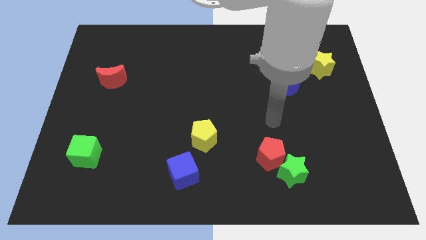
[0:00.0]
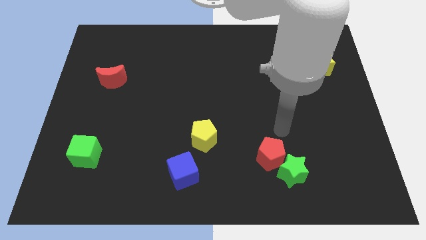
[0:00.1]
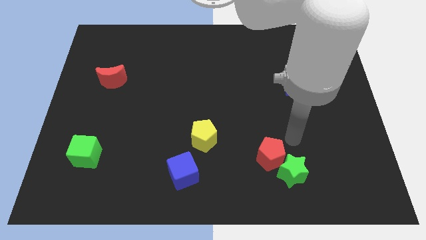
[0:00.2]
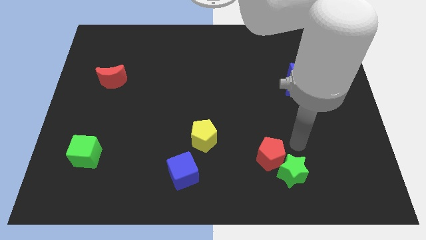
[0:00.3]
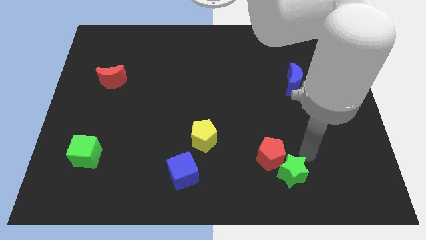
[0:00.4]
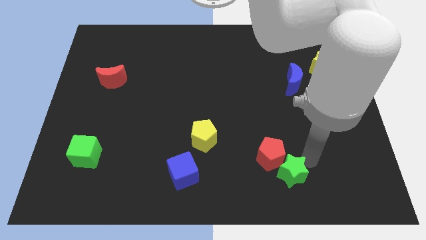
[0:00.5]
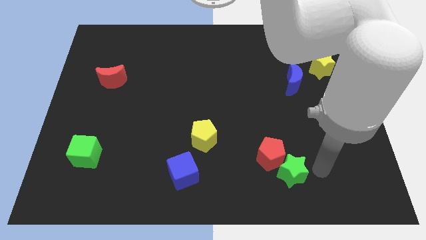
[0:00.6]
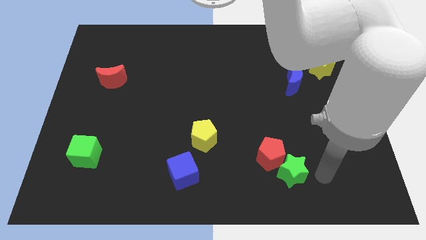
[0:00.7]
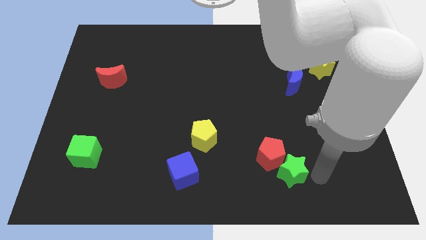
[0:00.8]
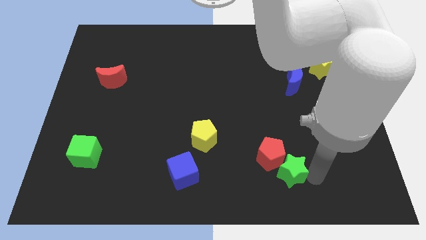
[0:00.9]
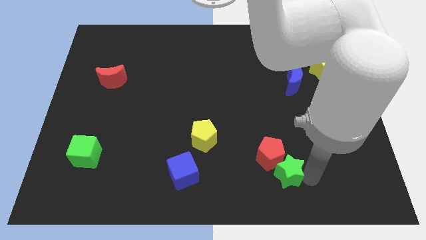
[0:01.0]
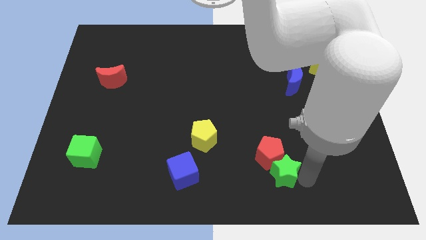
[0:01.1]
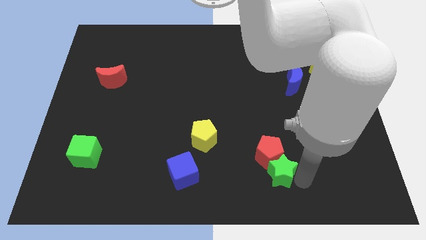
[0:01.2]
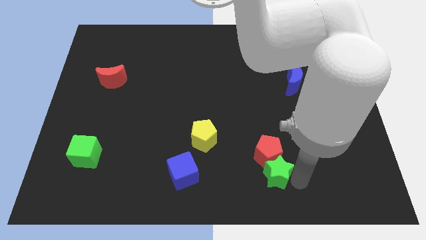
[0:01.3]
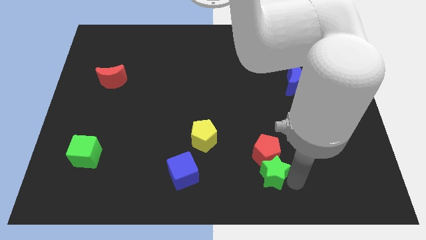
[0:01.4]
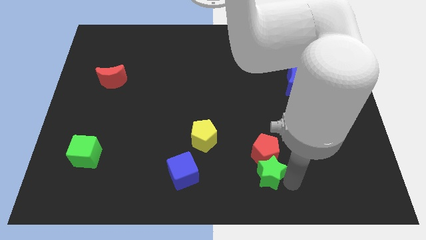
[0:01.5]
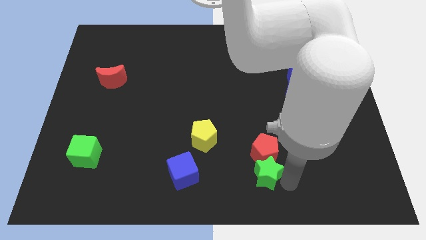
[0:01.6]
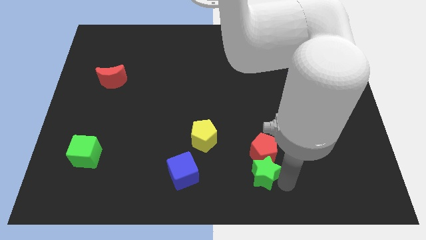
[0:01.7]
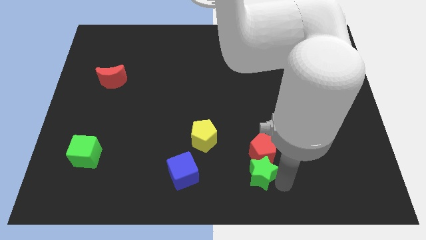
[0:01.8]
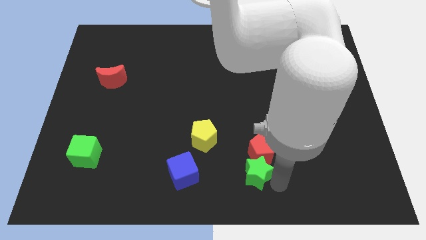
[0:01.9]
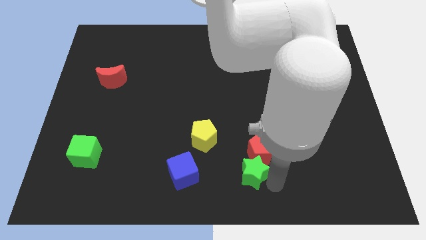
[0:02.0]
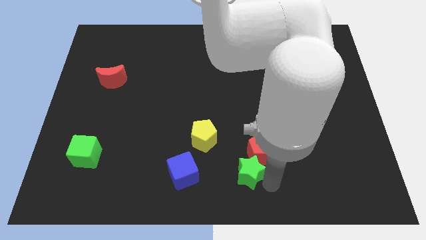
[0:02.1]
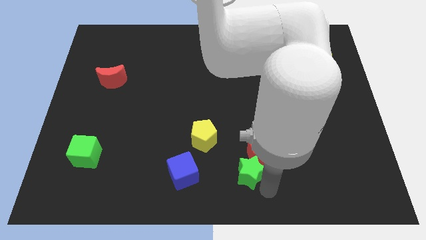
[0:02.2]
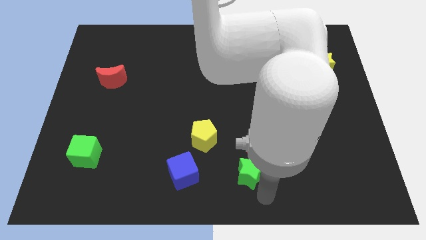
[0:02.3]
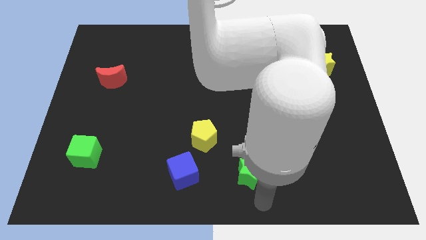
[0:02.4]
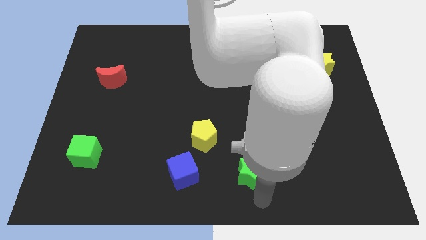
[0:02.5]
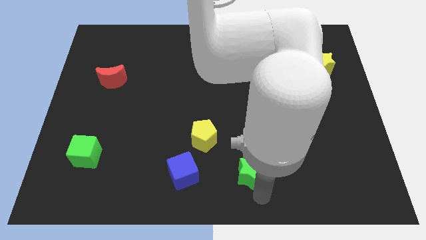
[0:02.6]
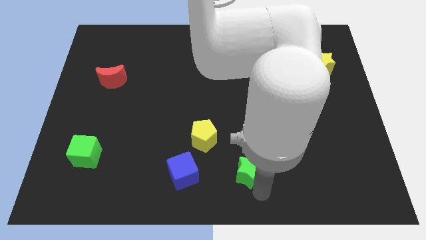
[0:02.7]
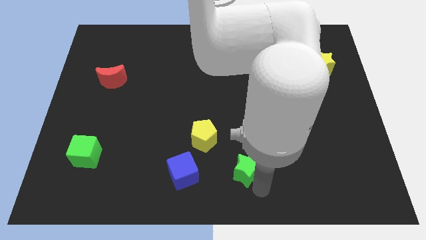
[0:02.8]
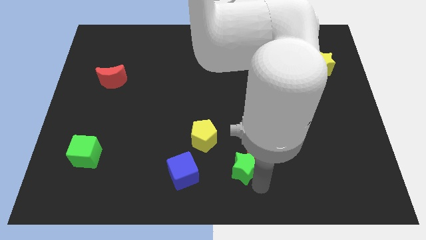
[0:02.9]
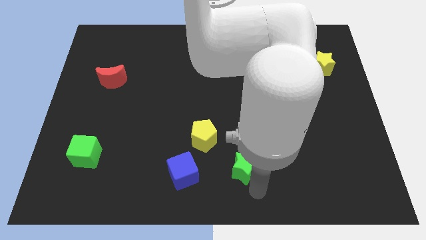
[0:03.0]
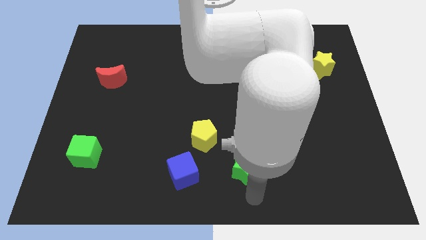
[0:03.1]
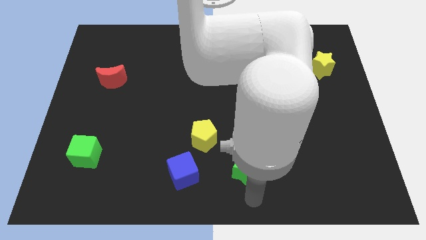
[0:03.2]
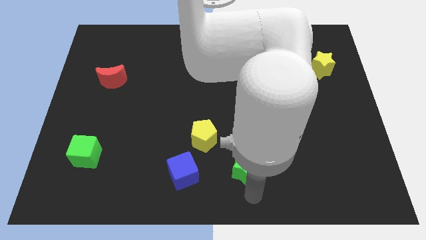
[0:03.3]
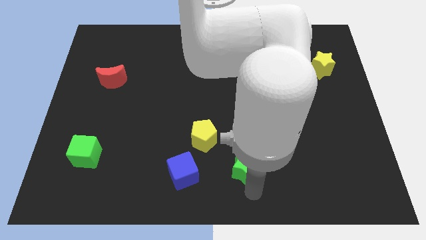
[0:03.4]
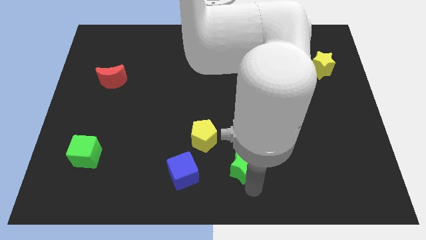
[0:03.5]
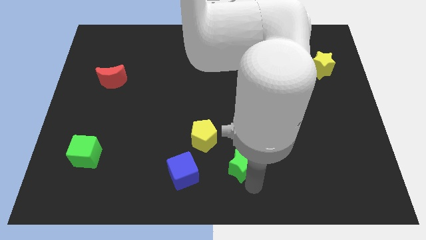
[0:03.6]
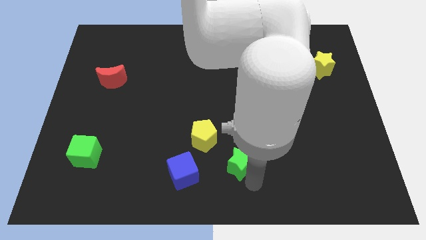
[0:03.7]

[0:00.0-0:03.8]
slide the green star a little bit diagonally upwards and left

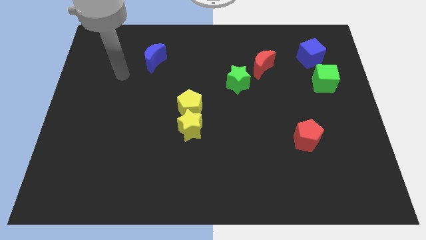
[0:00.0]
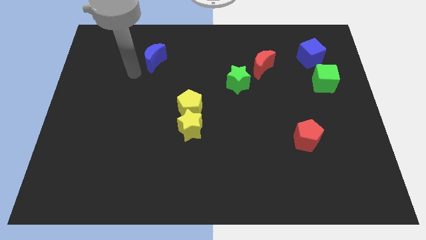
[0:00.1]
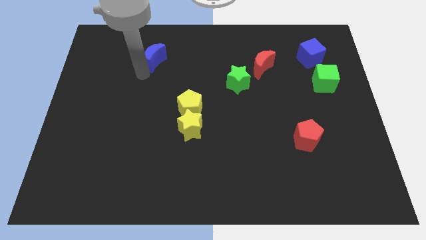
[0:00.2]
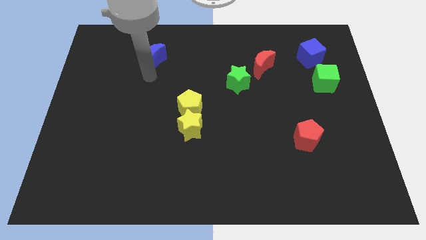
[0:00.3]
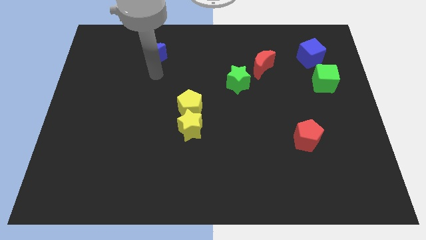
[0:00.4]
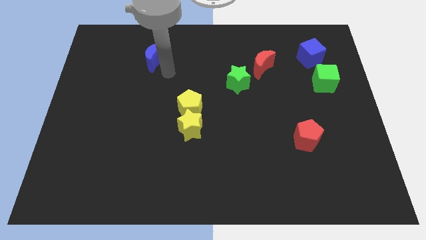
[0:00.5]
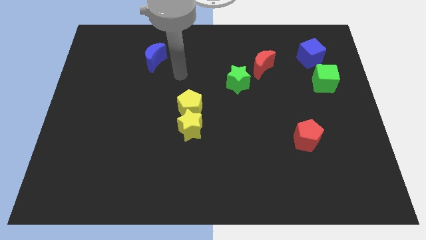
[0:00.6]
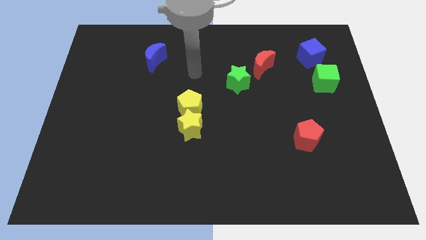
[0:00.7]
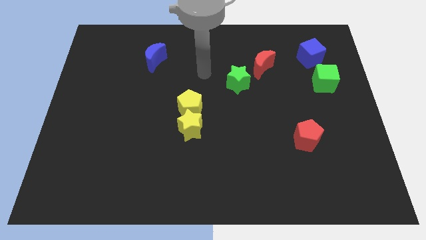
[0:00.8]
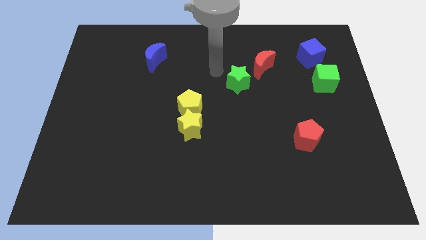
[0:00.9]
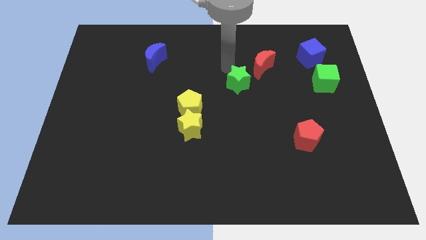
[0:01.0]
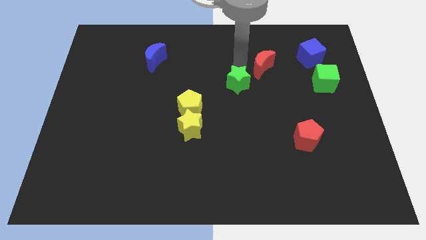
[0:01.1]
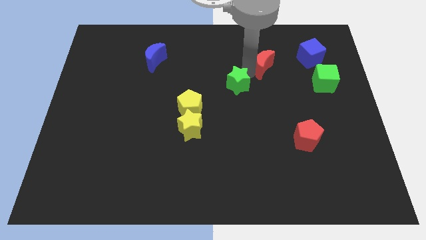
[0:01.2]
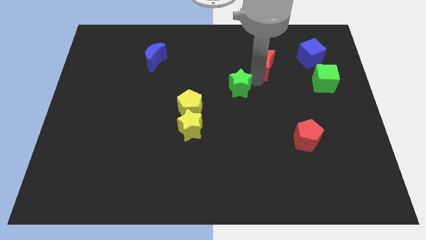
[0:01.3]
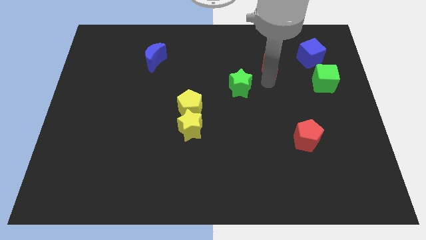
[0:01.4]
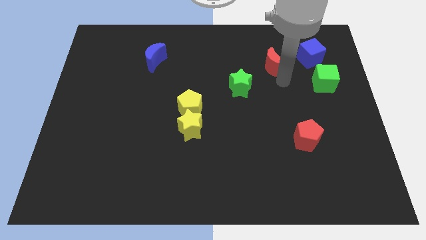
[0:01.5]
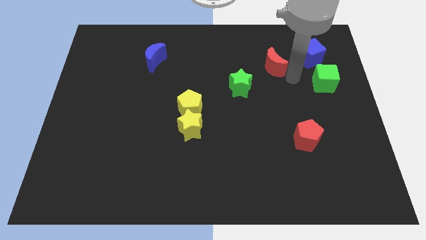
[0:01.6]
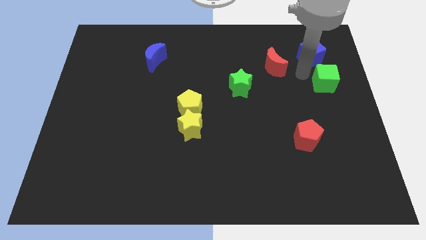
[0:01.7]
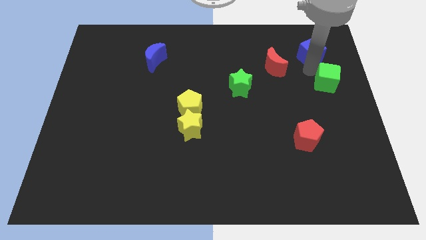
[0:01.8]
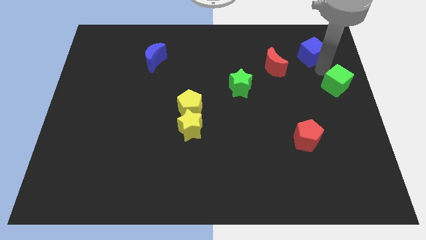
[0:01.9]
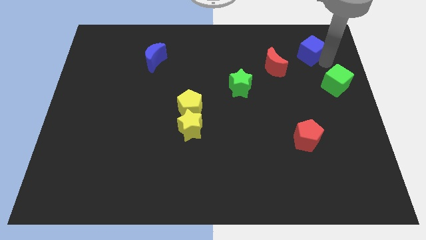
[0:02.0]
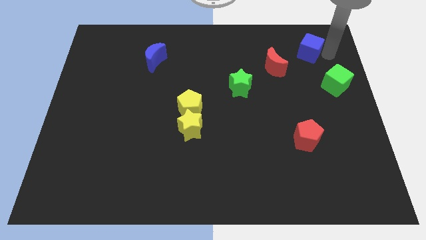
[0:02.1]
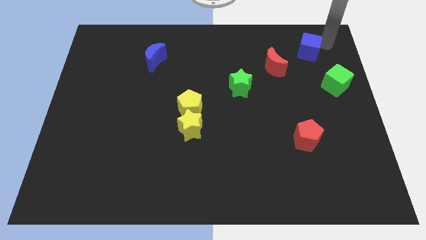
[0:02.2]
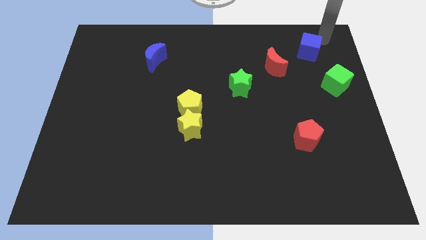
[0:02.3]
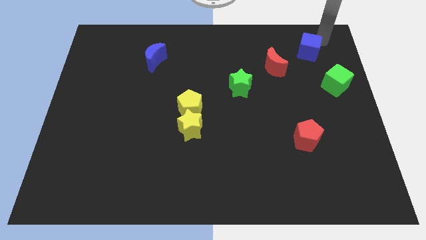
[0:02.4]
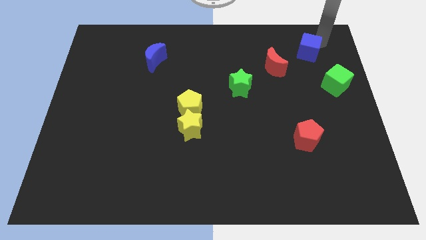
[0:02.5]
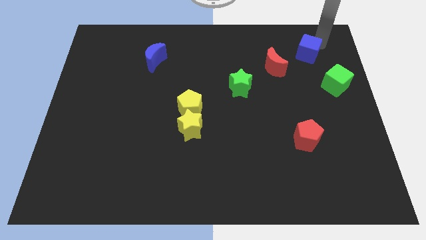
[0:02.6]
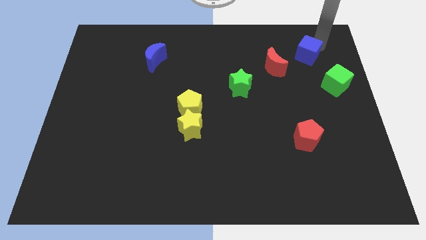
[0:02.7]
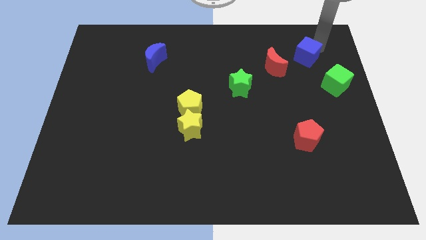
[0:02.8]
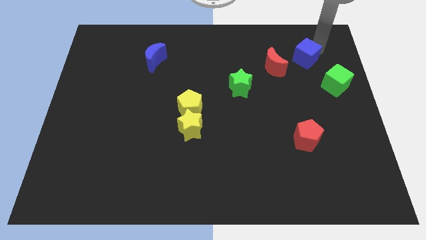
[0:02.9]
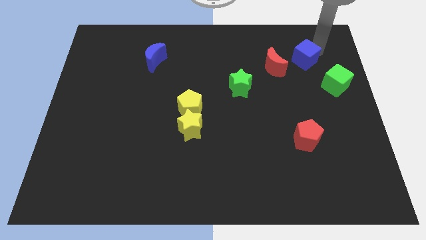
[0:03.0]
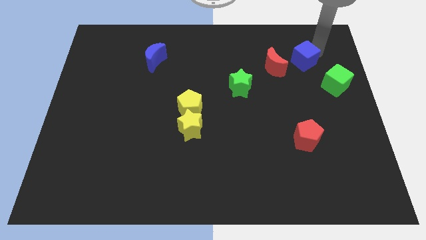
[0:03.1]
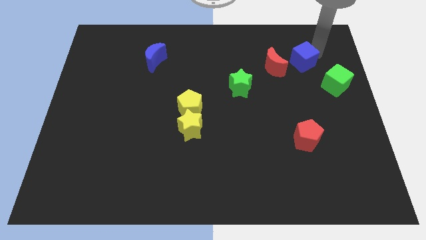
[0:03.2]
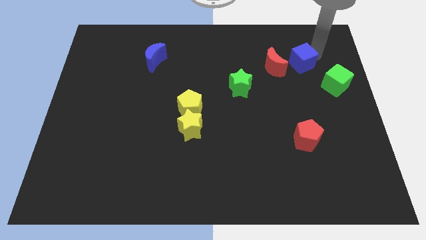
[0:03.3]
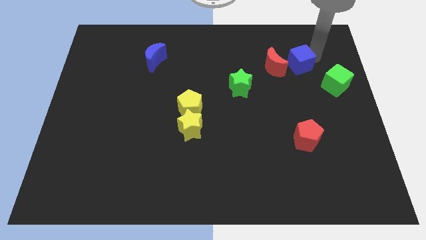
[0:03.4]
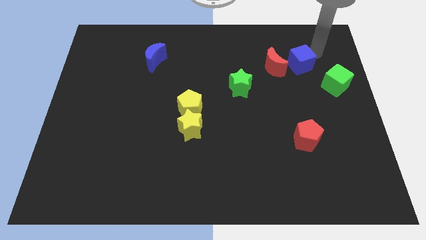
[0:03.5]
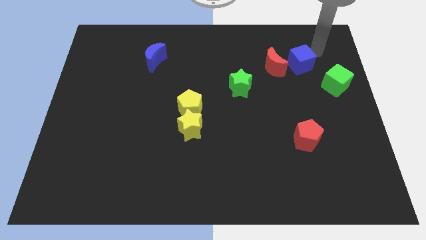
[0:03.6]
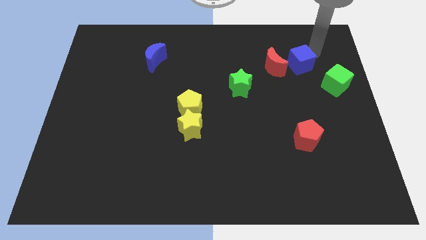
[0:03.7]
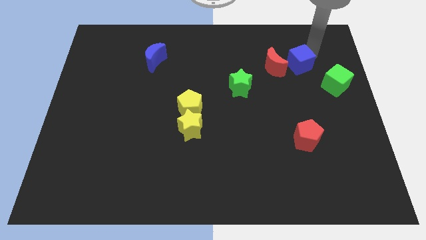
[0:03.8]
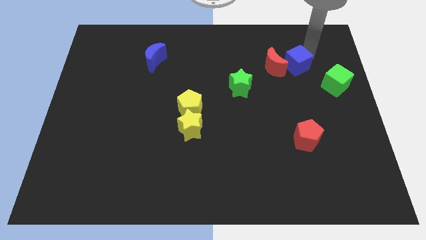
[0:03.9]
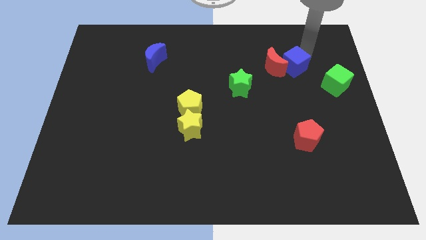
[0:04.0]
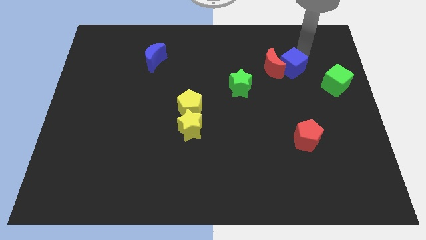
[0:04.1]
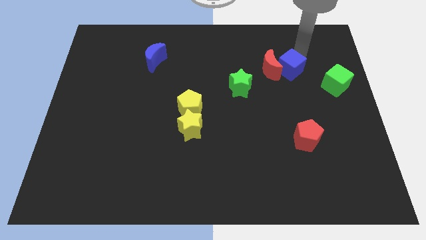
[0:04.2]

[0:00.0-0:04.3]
slide the blue cube diagonally downwards and left somewhat
